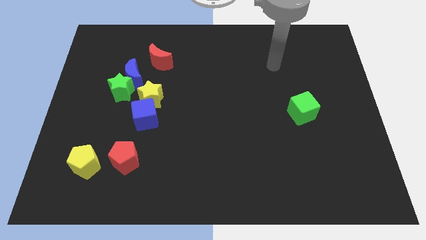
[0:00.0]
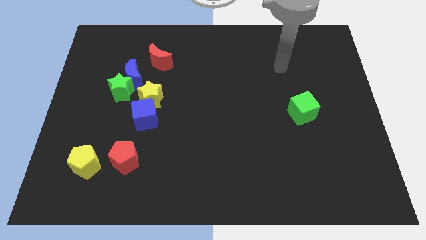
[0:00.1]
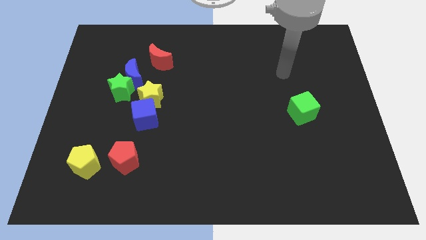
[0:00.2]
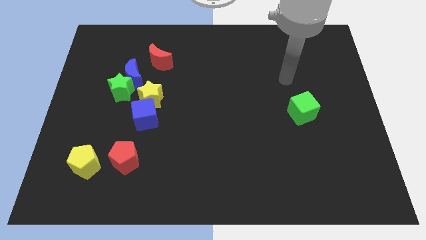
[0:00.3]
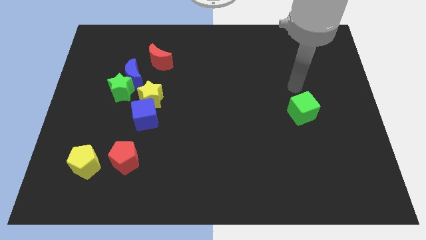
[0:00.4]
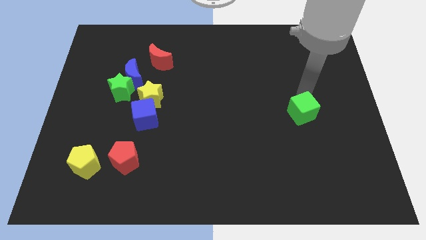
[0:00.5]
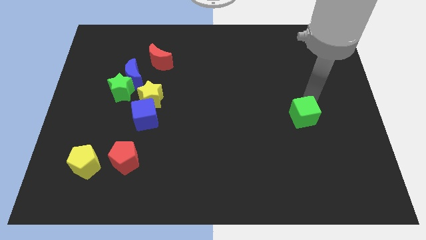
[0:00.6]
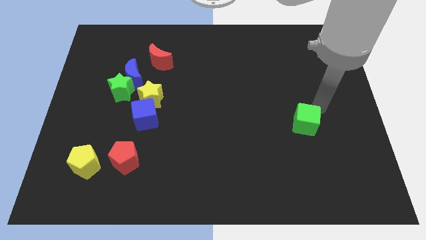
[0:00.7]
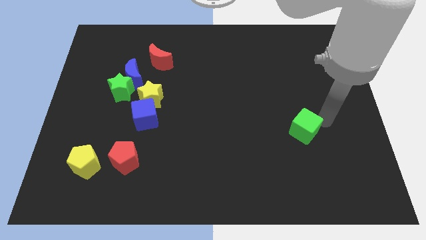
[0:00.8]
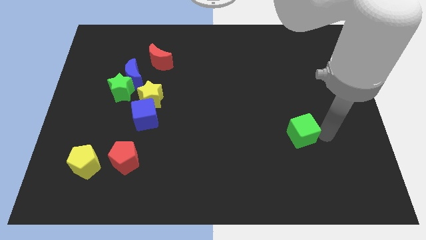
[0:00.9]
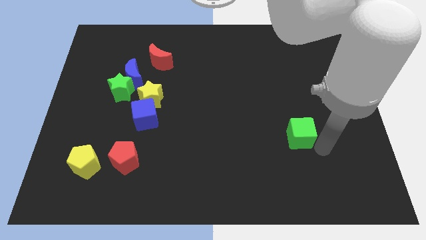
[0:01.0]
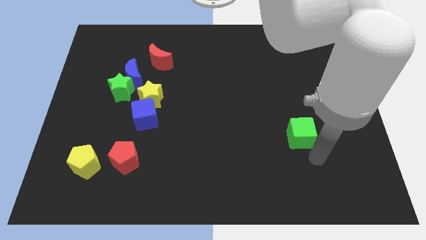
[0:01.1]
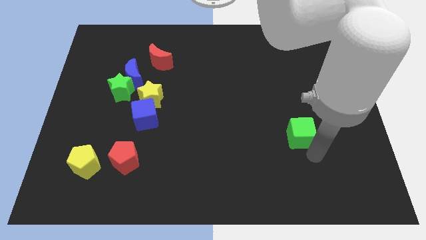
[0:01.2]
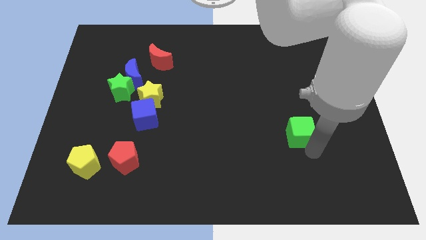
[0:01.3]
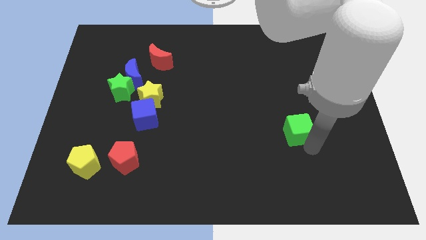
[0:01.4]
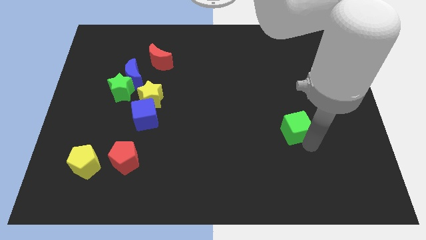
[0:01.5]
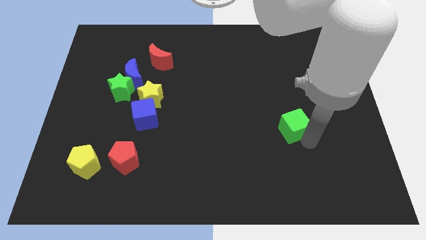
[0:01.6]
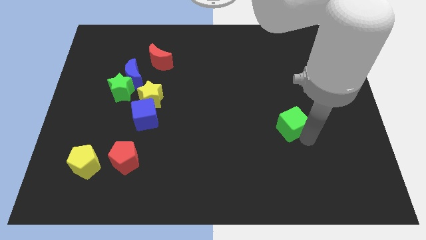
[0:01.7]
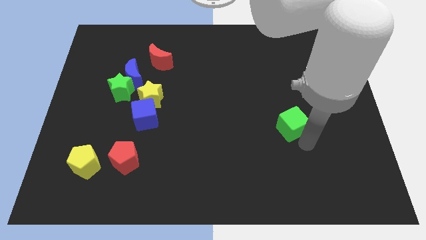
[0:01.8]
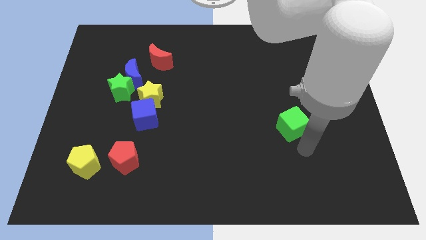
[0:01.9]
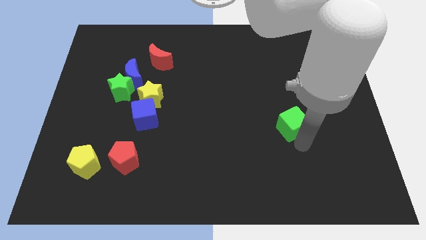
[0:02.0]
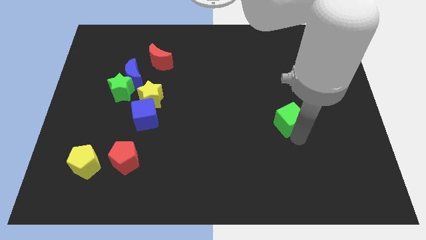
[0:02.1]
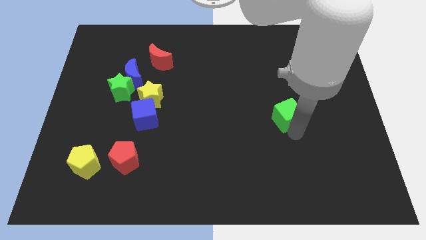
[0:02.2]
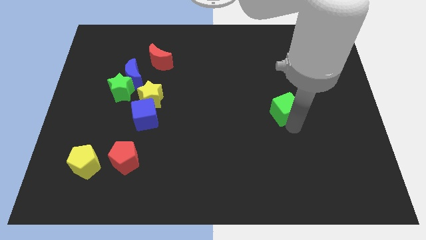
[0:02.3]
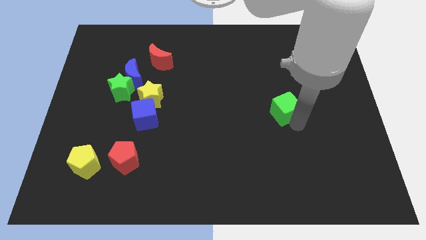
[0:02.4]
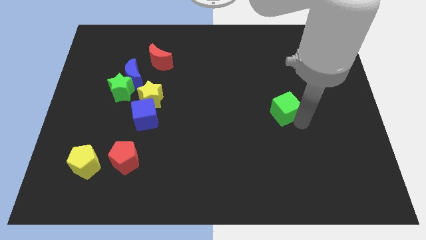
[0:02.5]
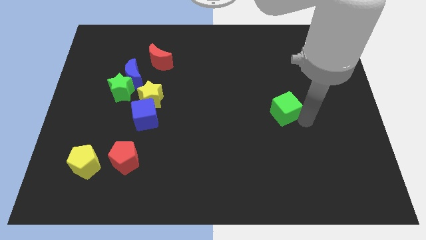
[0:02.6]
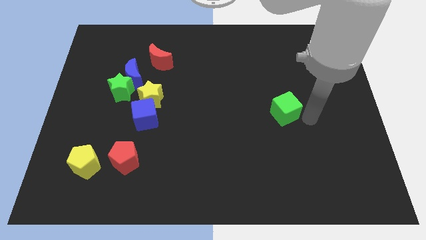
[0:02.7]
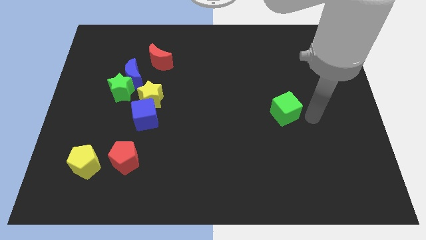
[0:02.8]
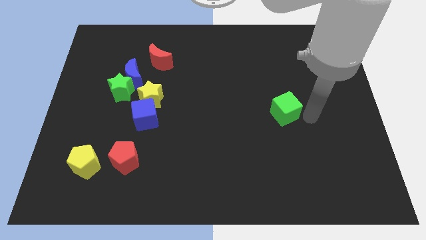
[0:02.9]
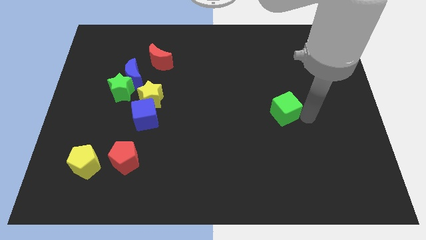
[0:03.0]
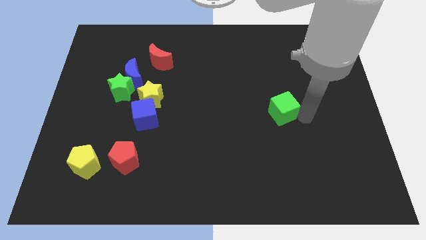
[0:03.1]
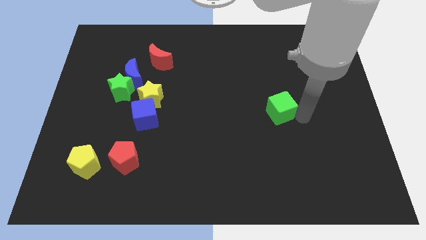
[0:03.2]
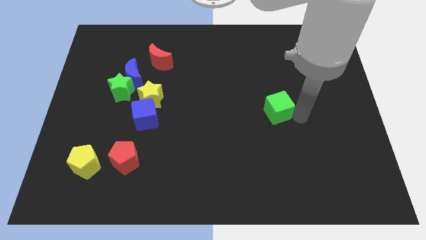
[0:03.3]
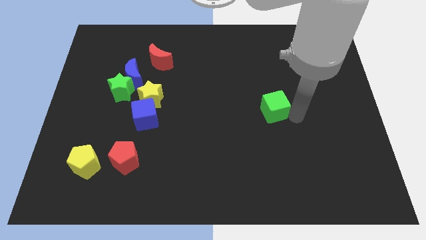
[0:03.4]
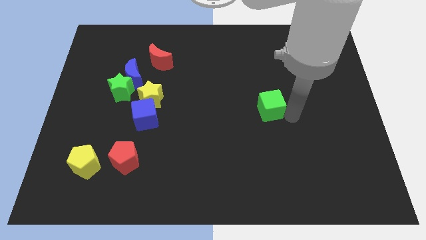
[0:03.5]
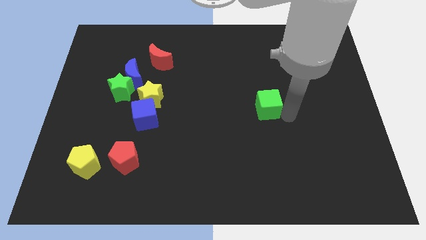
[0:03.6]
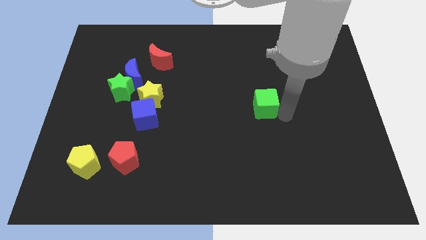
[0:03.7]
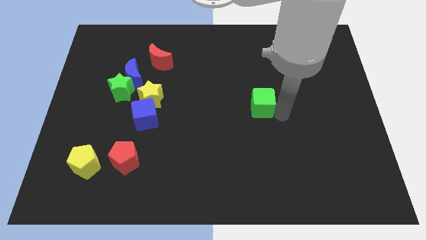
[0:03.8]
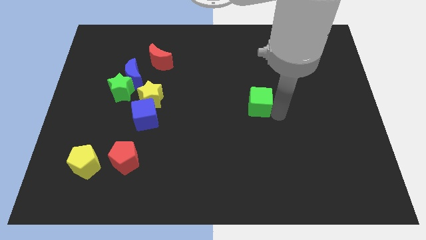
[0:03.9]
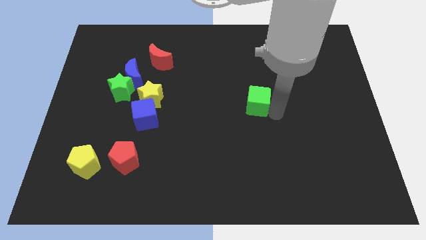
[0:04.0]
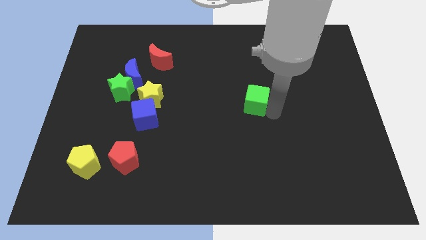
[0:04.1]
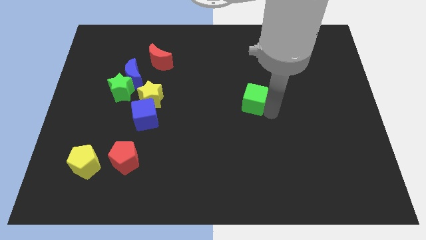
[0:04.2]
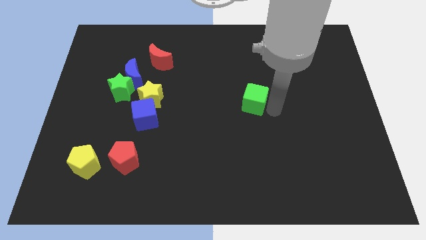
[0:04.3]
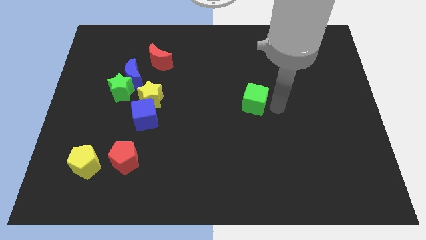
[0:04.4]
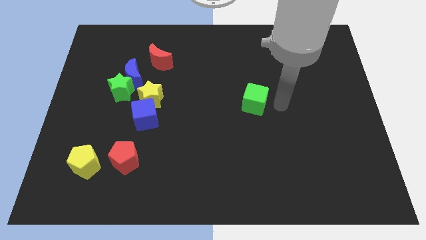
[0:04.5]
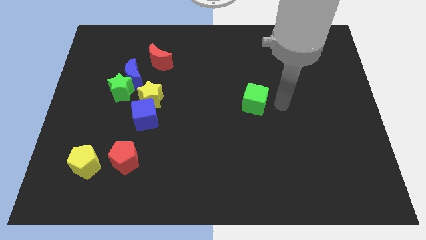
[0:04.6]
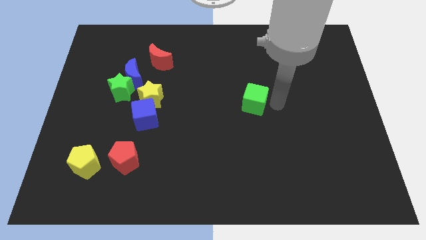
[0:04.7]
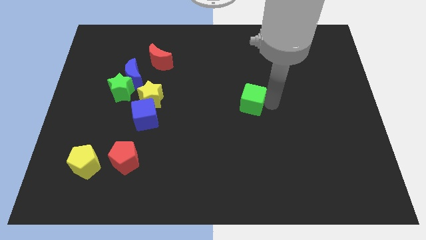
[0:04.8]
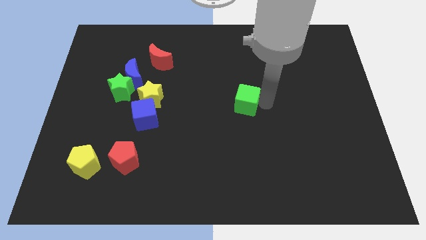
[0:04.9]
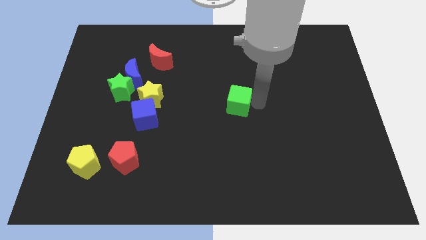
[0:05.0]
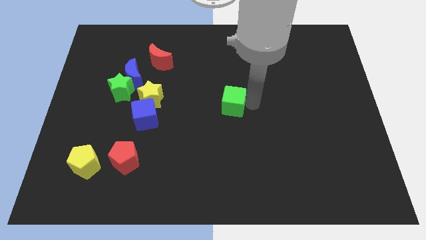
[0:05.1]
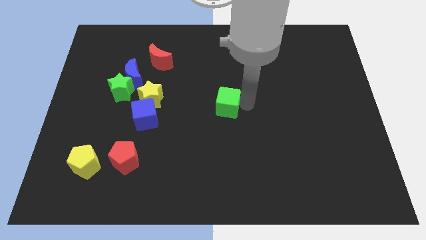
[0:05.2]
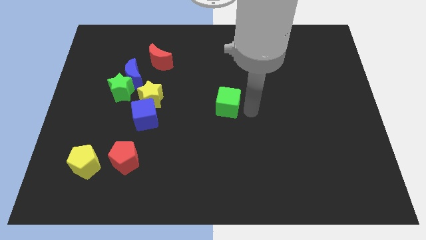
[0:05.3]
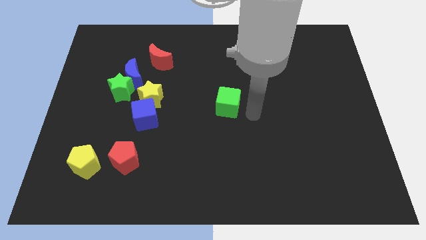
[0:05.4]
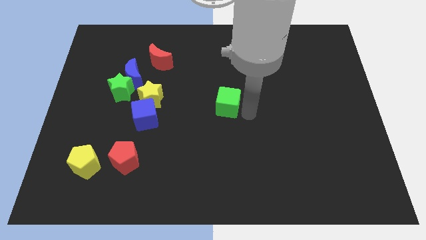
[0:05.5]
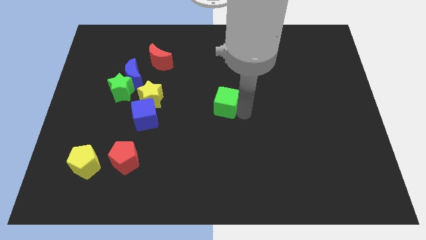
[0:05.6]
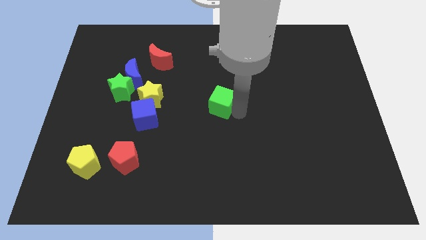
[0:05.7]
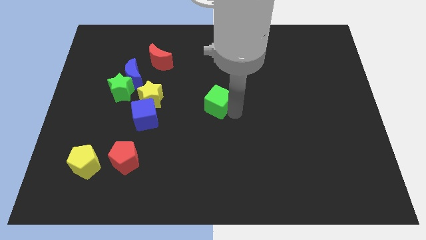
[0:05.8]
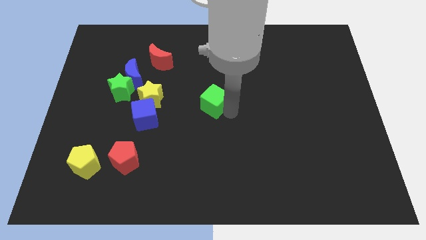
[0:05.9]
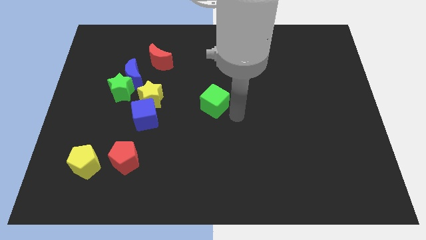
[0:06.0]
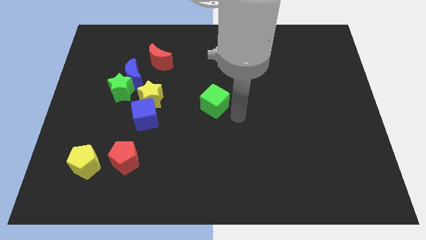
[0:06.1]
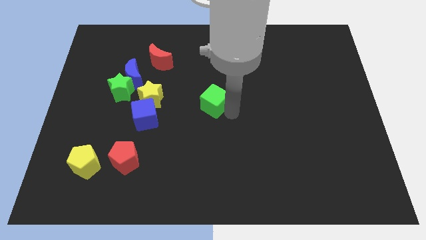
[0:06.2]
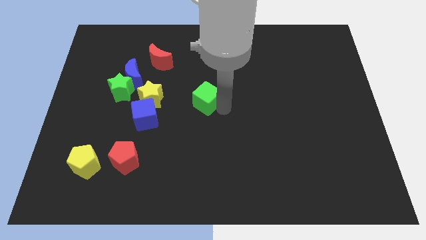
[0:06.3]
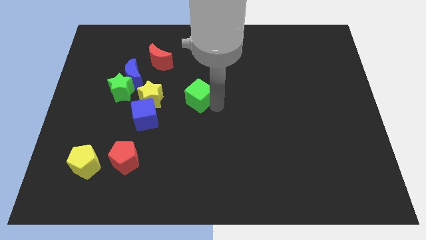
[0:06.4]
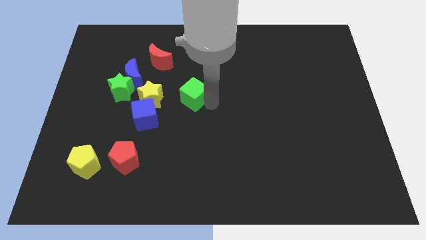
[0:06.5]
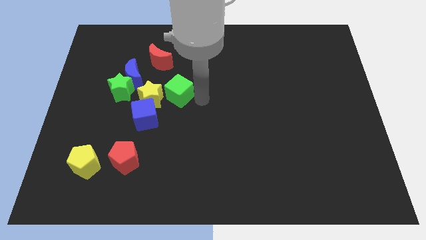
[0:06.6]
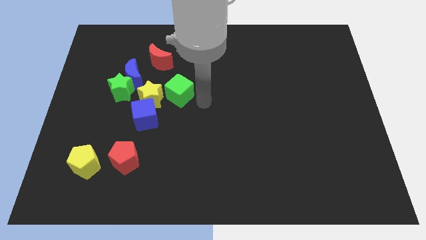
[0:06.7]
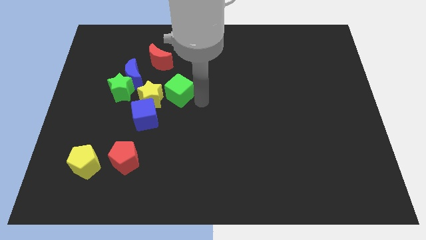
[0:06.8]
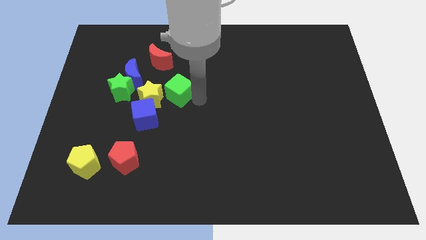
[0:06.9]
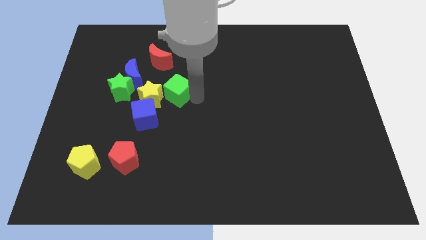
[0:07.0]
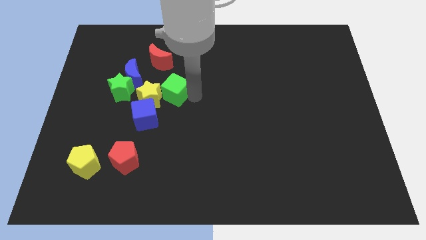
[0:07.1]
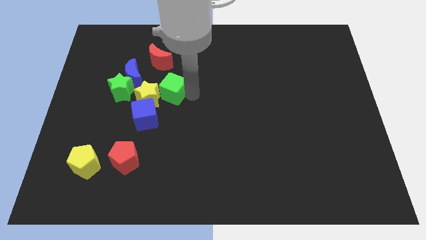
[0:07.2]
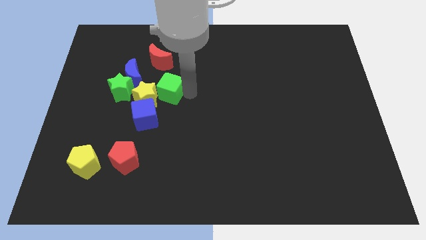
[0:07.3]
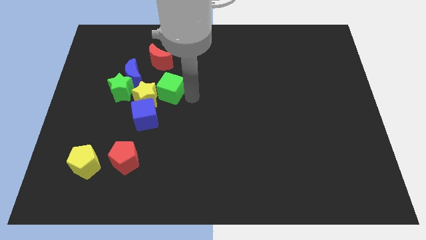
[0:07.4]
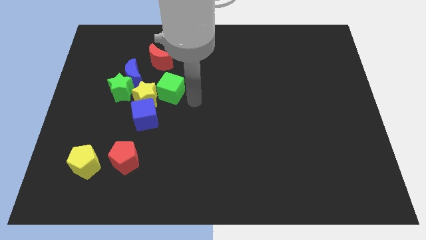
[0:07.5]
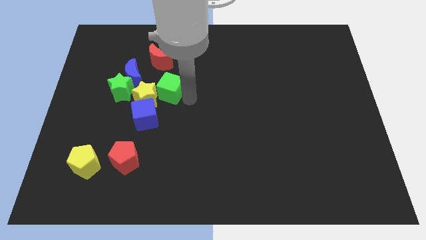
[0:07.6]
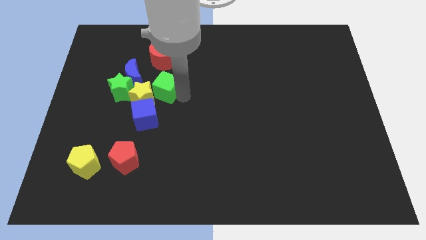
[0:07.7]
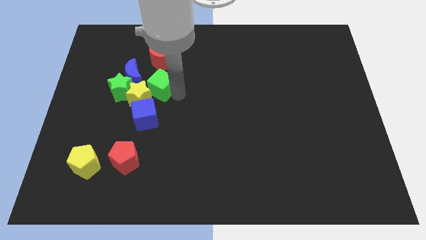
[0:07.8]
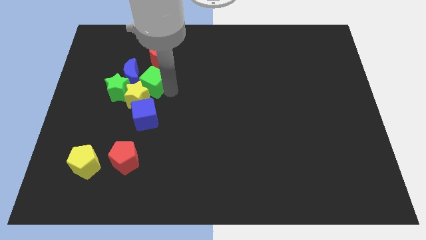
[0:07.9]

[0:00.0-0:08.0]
move the green cube to the blue moon
